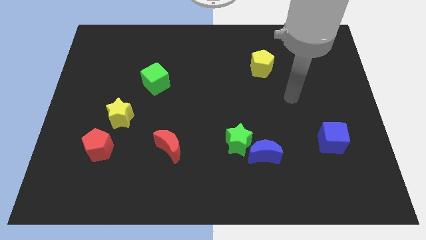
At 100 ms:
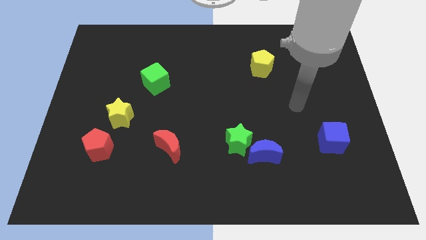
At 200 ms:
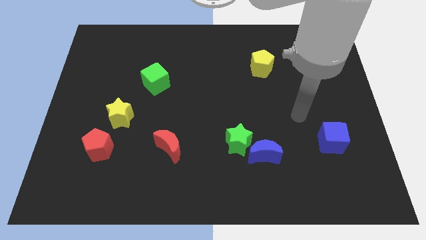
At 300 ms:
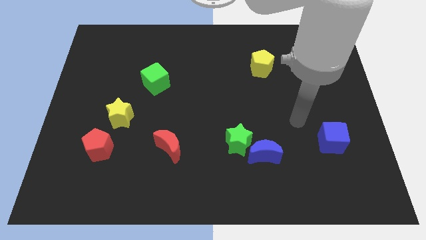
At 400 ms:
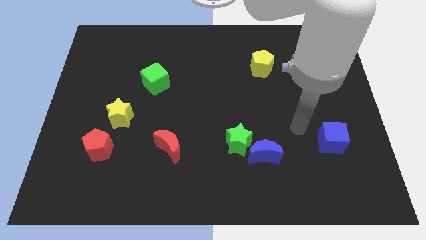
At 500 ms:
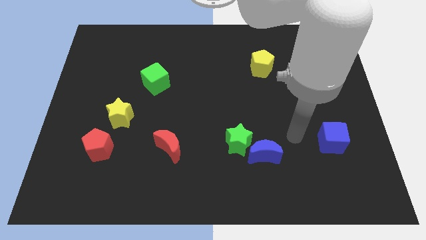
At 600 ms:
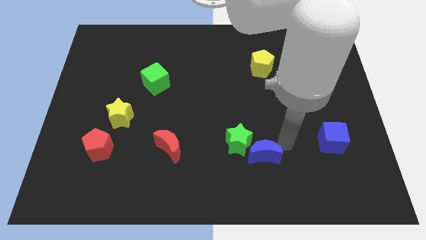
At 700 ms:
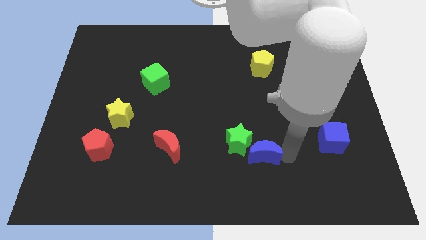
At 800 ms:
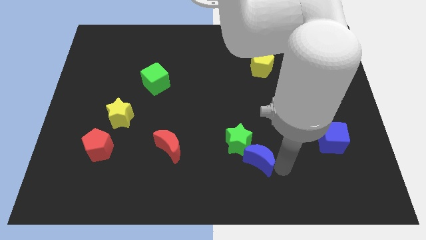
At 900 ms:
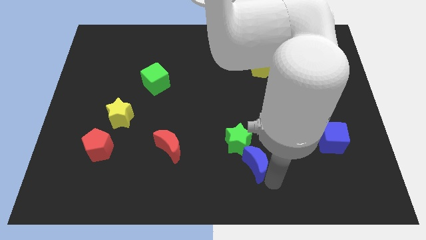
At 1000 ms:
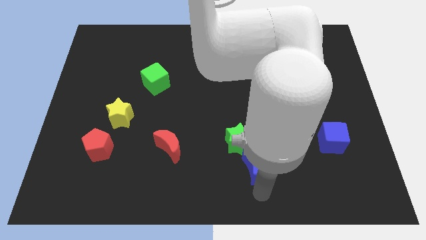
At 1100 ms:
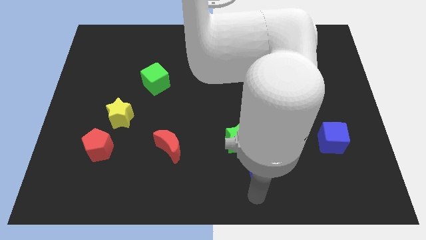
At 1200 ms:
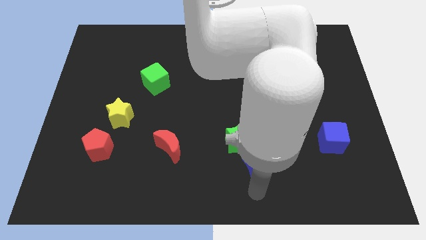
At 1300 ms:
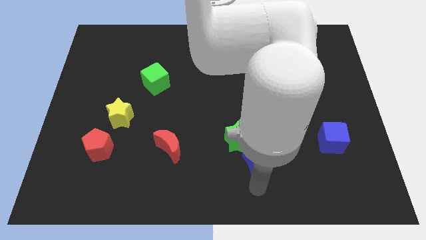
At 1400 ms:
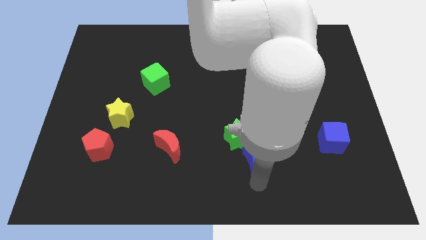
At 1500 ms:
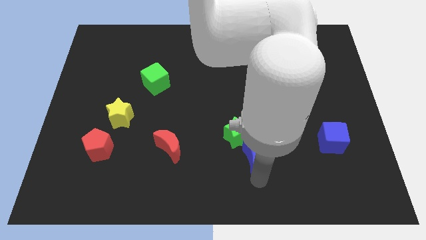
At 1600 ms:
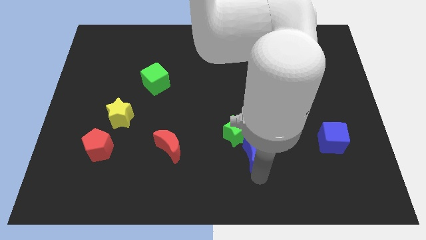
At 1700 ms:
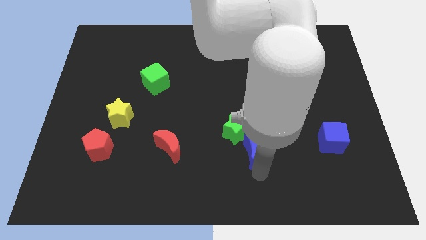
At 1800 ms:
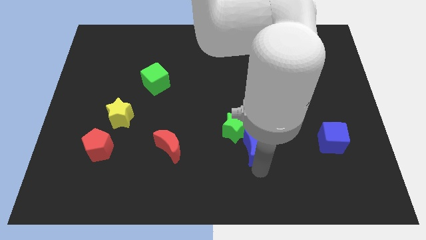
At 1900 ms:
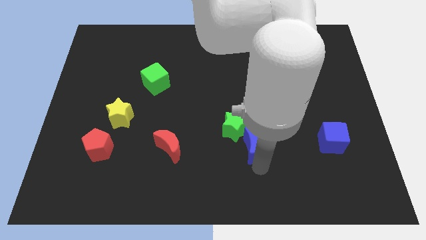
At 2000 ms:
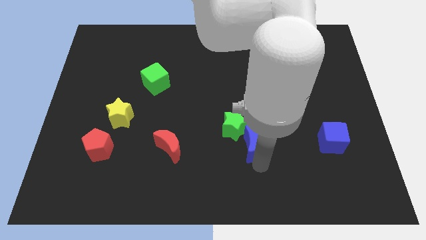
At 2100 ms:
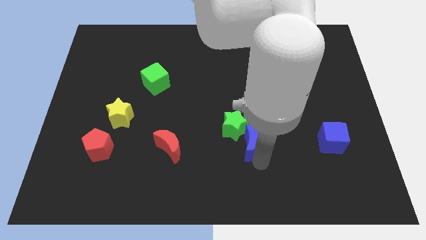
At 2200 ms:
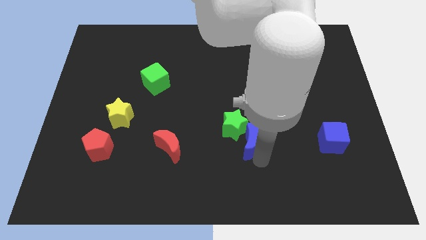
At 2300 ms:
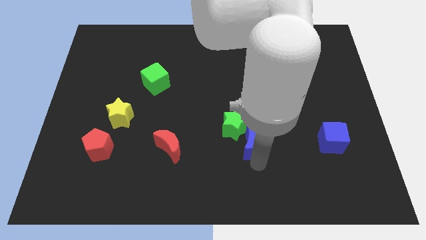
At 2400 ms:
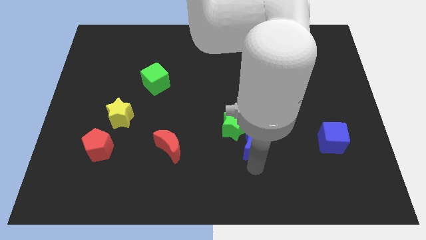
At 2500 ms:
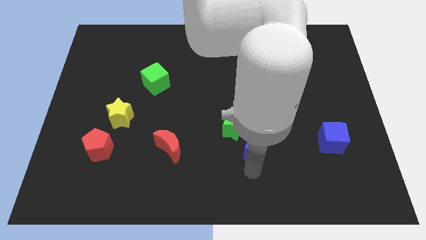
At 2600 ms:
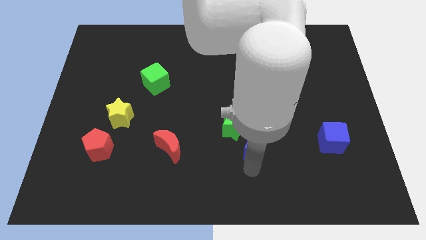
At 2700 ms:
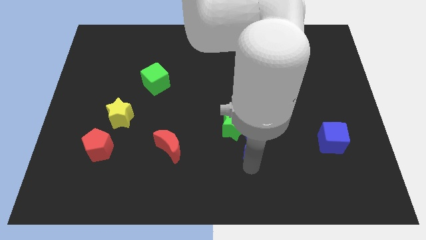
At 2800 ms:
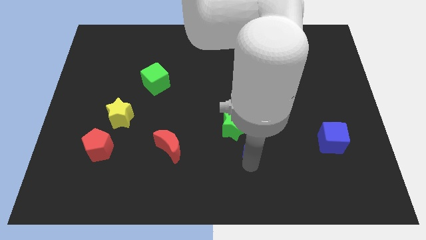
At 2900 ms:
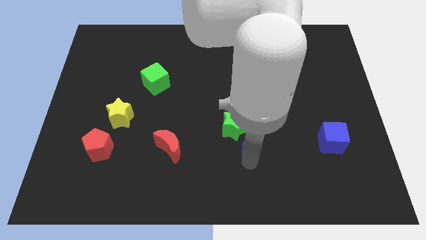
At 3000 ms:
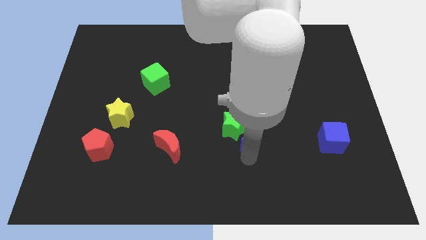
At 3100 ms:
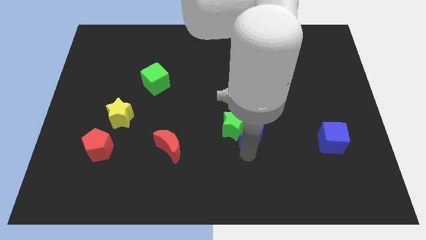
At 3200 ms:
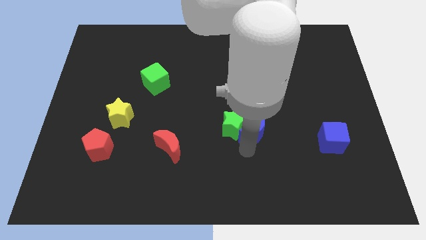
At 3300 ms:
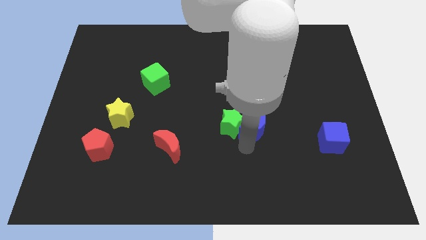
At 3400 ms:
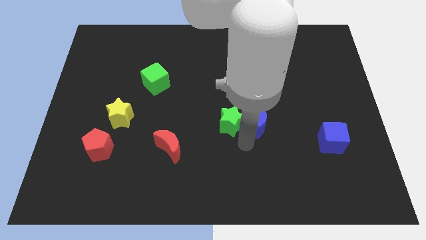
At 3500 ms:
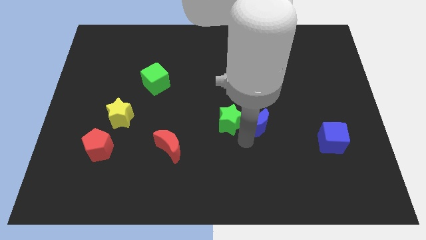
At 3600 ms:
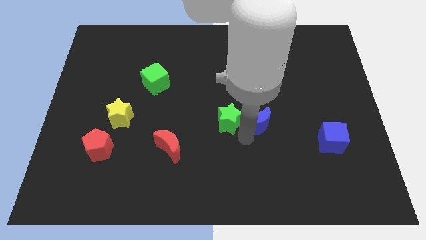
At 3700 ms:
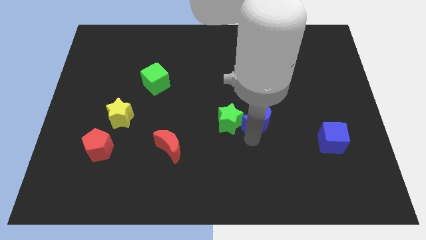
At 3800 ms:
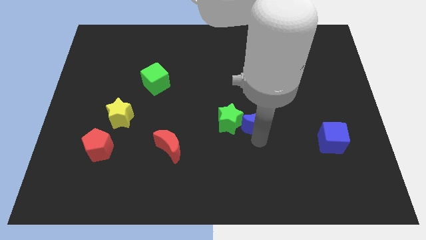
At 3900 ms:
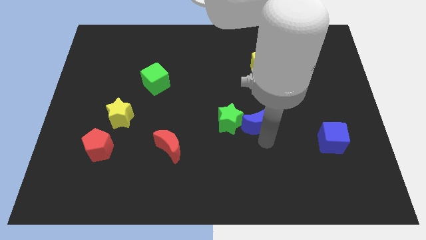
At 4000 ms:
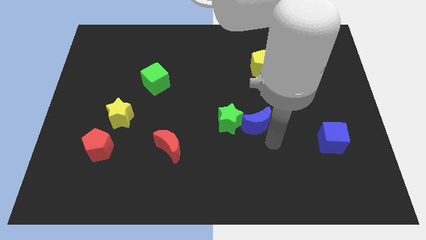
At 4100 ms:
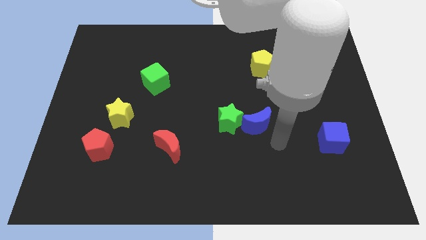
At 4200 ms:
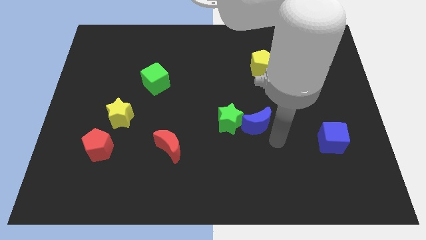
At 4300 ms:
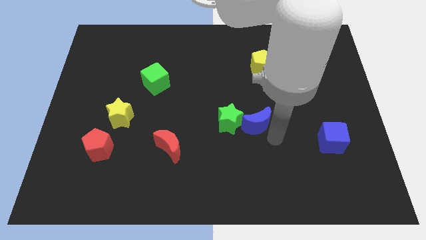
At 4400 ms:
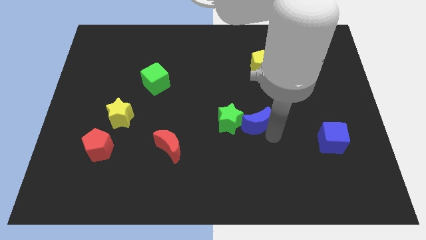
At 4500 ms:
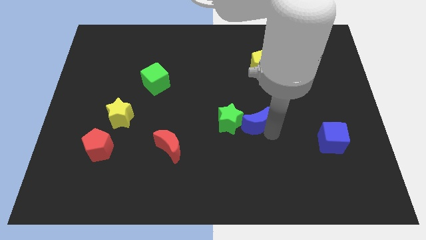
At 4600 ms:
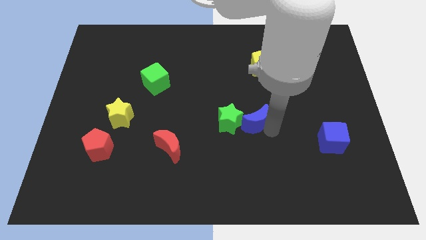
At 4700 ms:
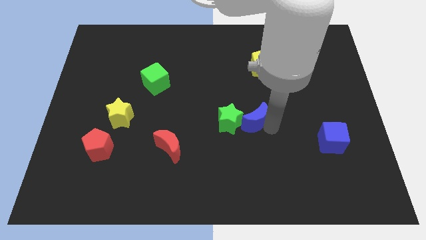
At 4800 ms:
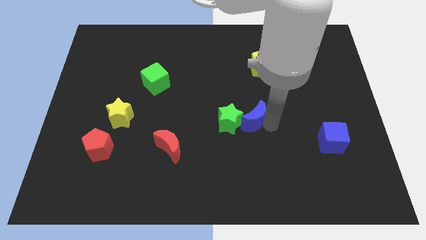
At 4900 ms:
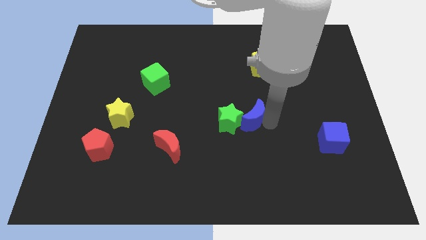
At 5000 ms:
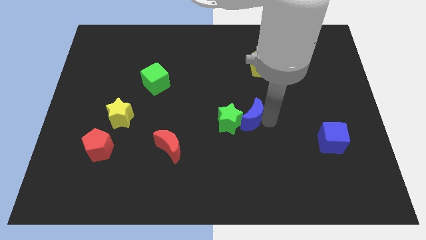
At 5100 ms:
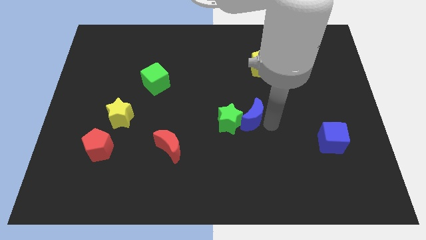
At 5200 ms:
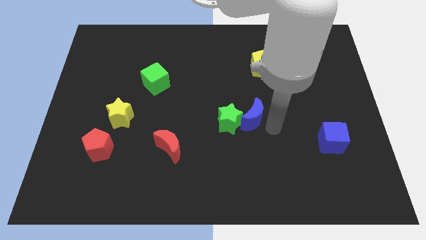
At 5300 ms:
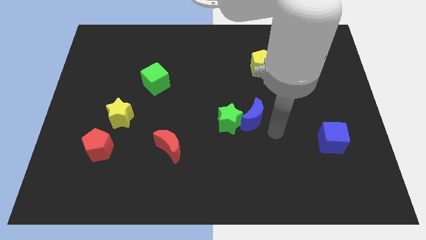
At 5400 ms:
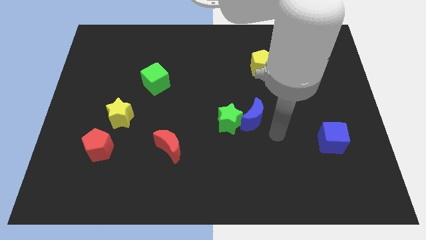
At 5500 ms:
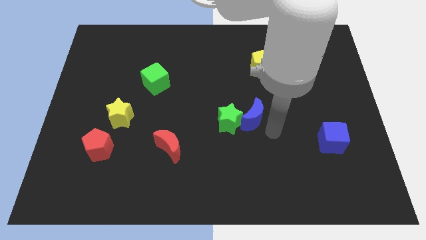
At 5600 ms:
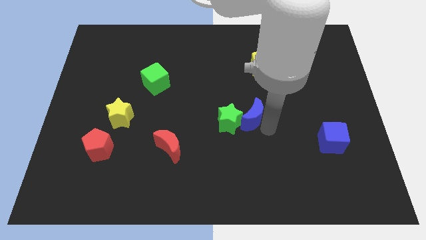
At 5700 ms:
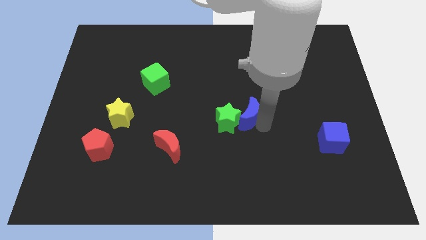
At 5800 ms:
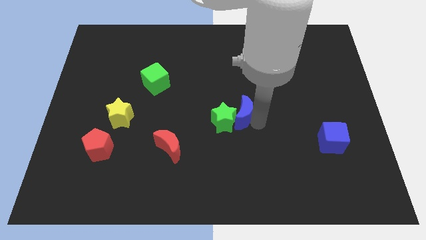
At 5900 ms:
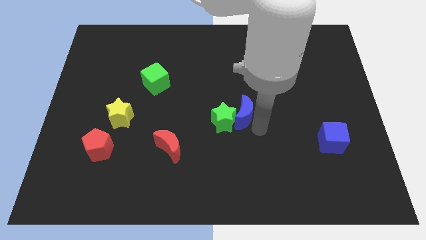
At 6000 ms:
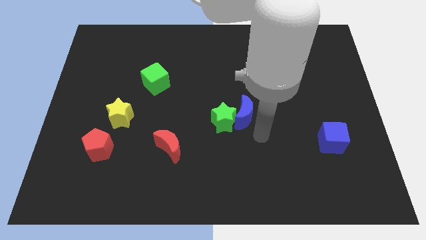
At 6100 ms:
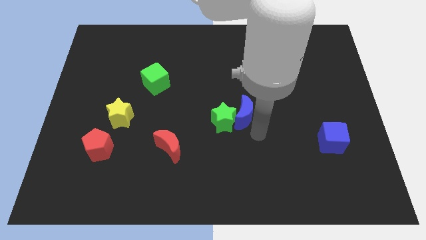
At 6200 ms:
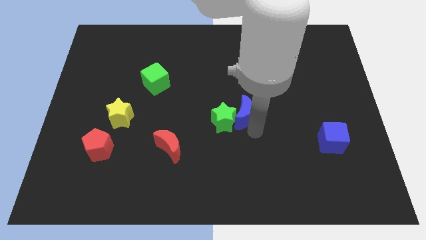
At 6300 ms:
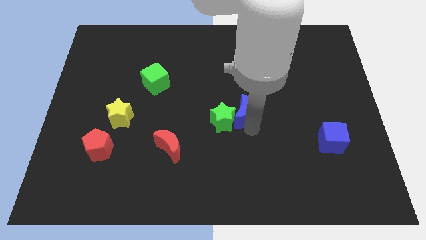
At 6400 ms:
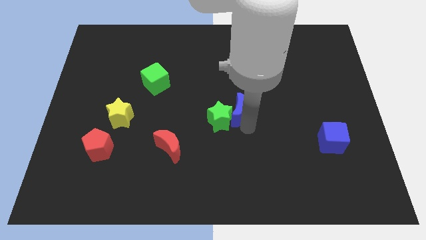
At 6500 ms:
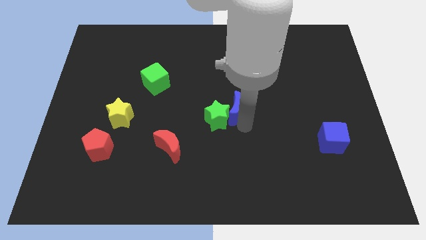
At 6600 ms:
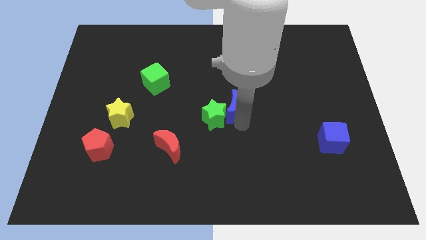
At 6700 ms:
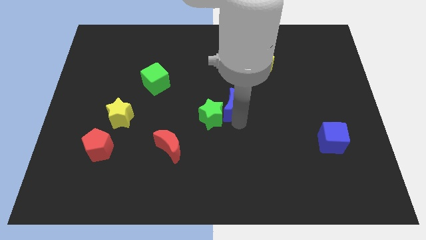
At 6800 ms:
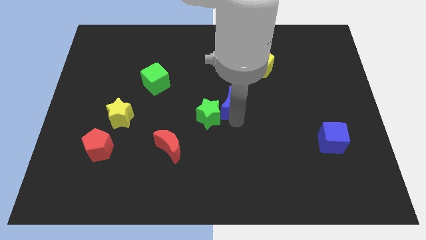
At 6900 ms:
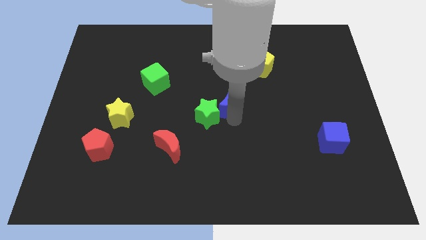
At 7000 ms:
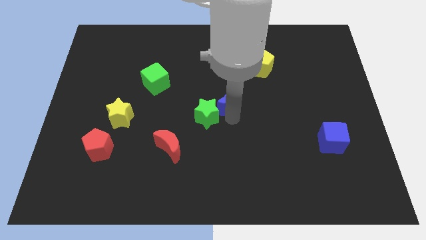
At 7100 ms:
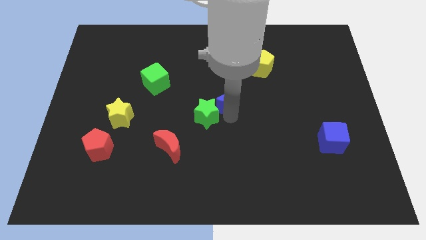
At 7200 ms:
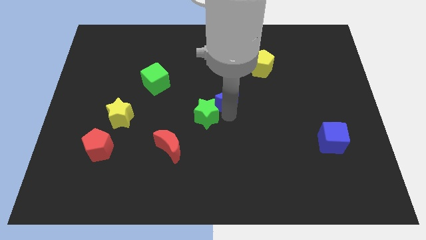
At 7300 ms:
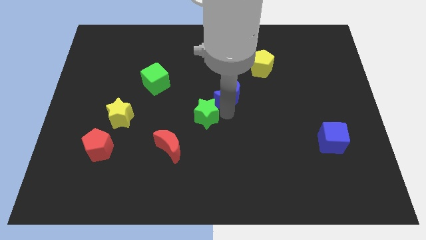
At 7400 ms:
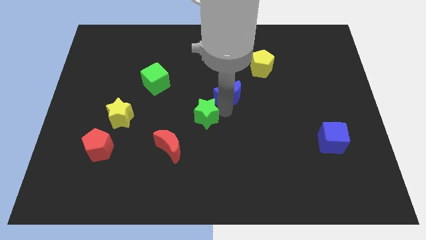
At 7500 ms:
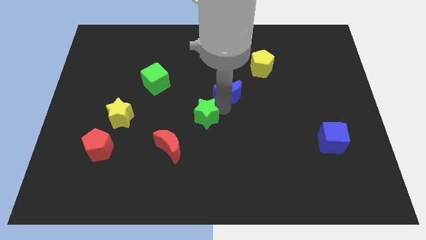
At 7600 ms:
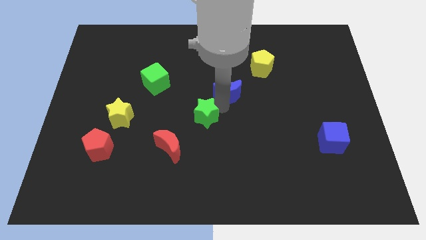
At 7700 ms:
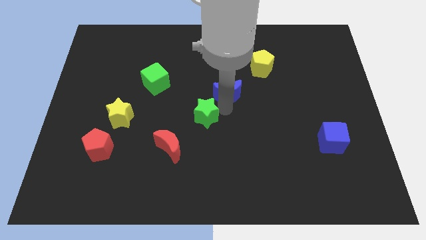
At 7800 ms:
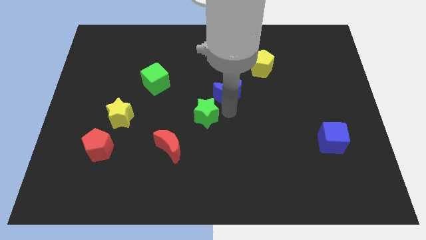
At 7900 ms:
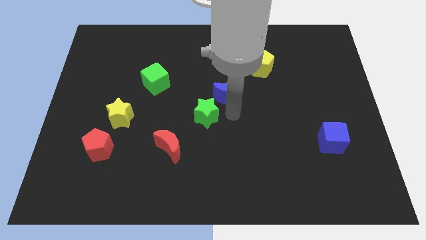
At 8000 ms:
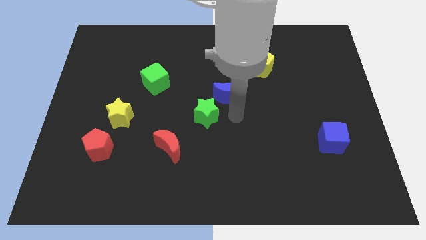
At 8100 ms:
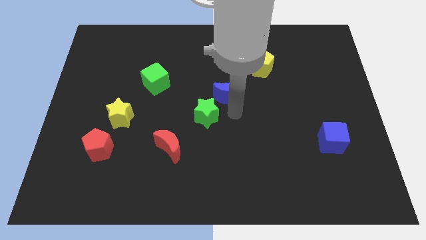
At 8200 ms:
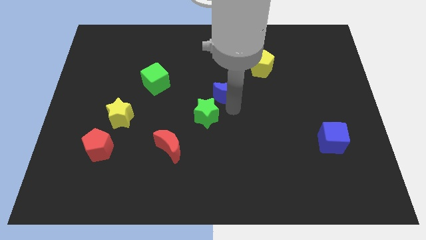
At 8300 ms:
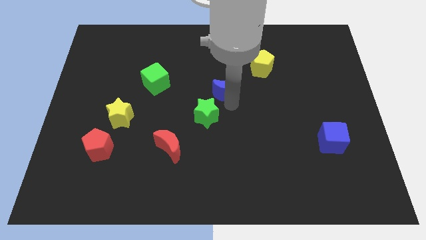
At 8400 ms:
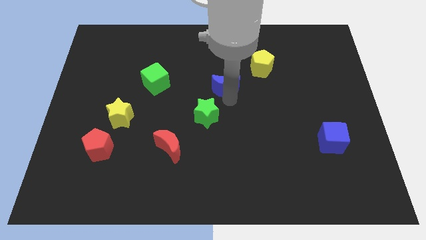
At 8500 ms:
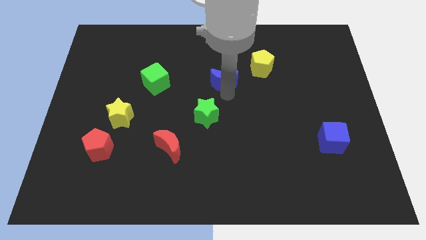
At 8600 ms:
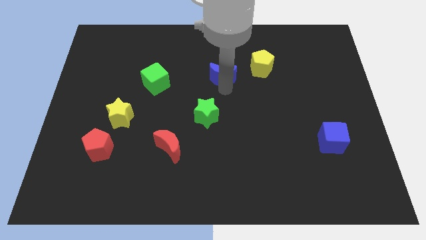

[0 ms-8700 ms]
push the blue moon to the left of the yellow pentagon
